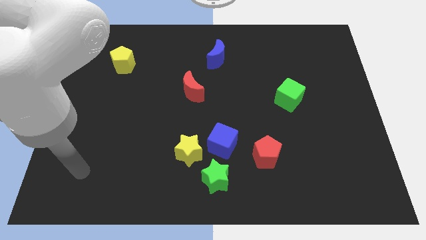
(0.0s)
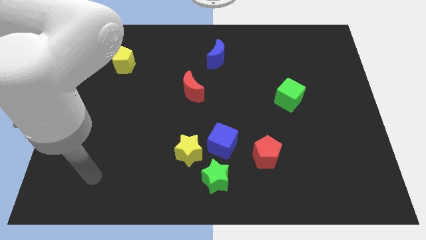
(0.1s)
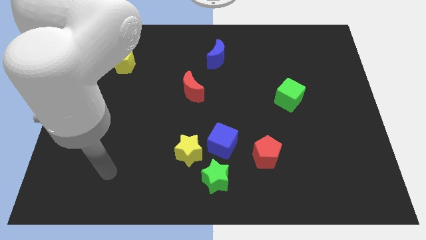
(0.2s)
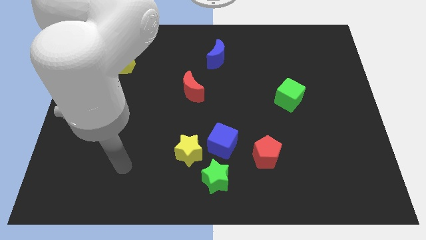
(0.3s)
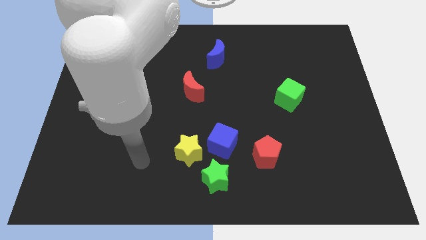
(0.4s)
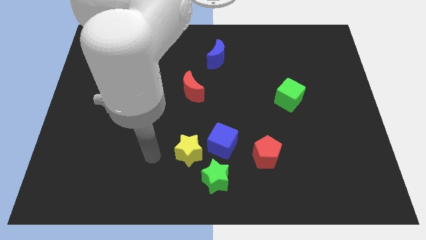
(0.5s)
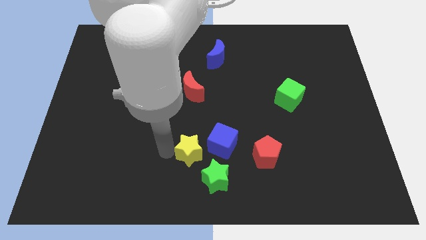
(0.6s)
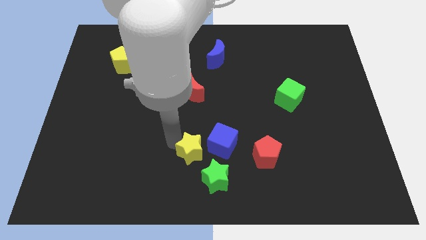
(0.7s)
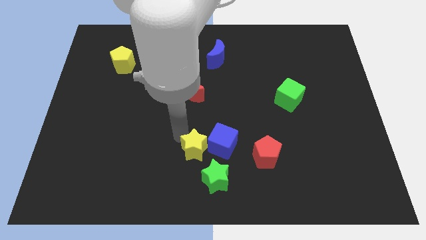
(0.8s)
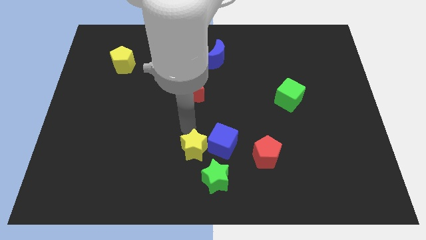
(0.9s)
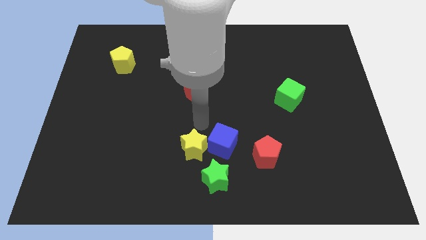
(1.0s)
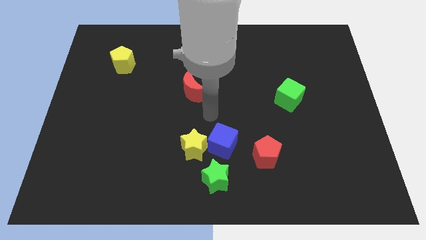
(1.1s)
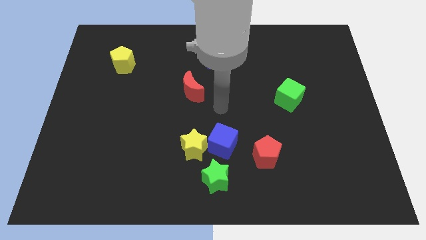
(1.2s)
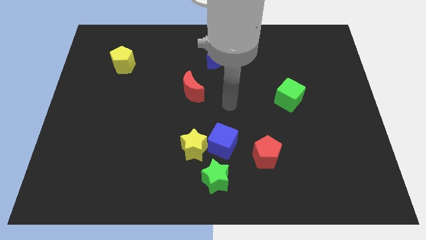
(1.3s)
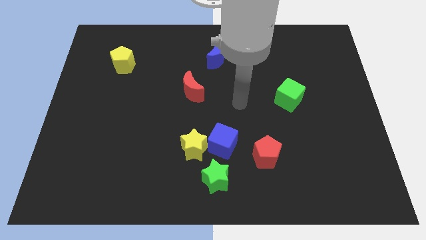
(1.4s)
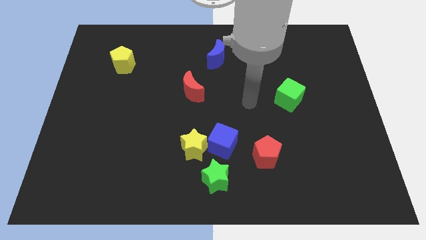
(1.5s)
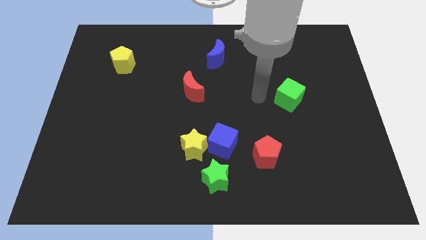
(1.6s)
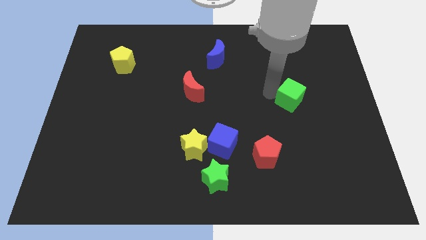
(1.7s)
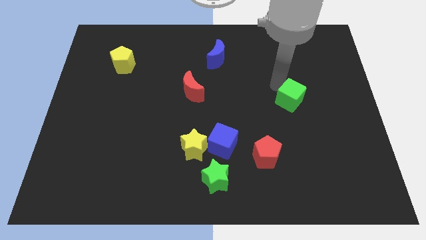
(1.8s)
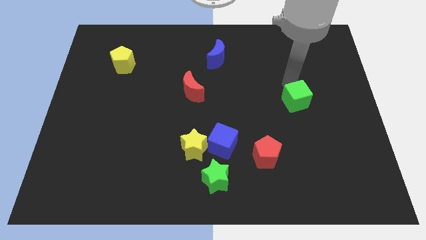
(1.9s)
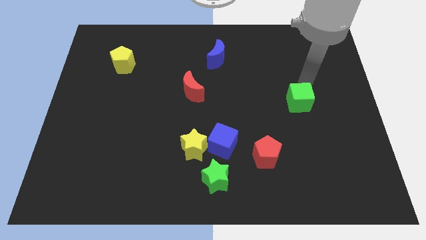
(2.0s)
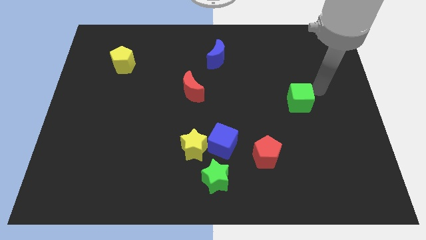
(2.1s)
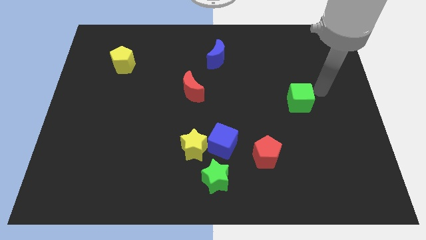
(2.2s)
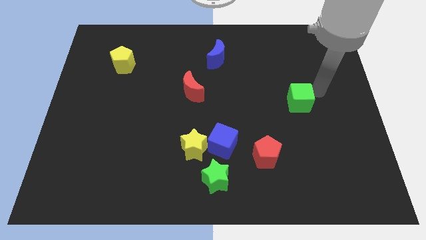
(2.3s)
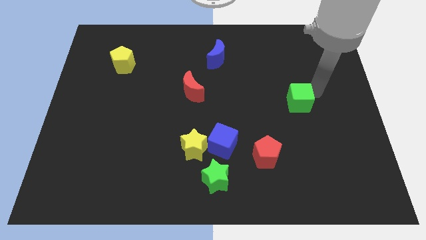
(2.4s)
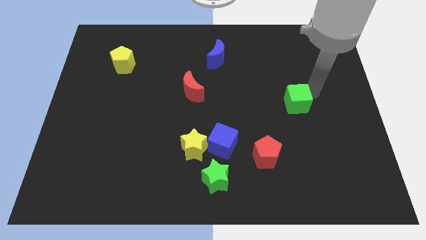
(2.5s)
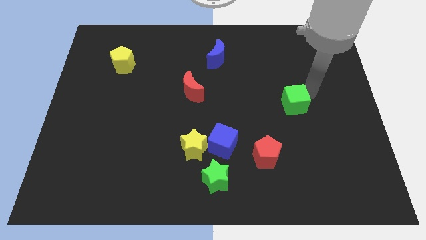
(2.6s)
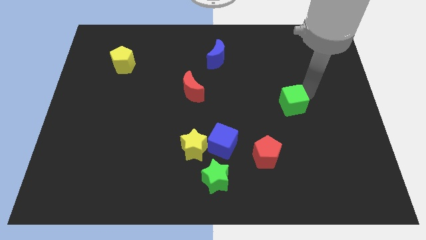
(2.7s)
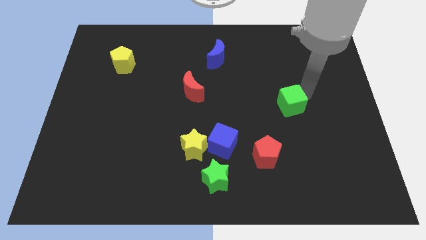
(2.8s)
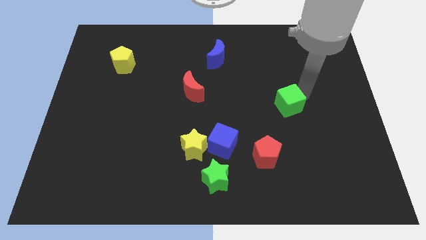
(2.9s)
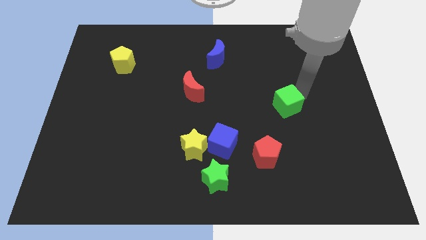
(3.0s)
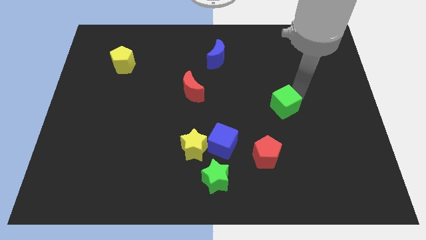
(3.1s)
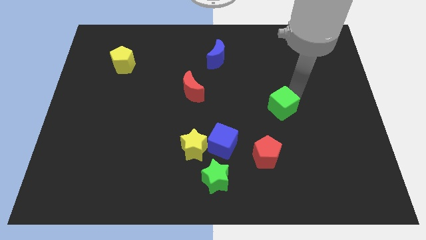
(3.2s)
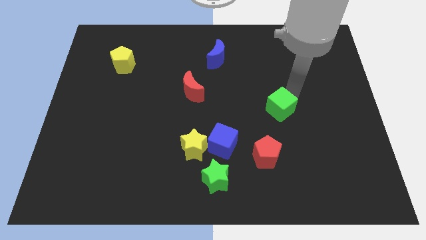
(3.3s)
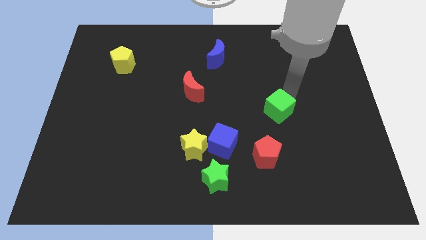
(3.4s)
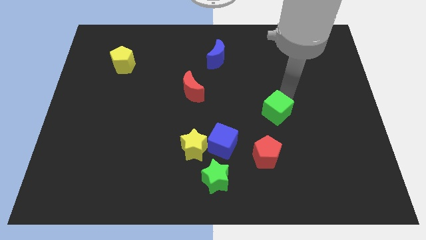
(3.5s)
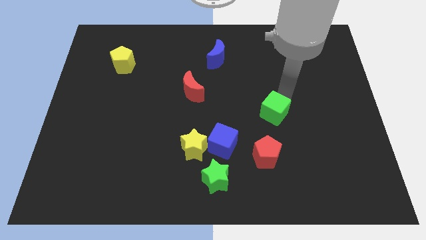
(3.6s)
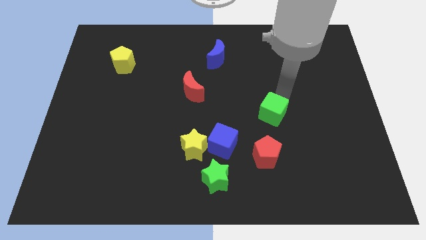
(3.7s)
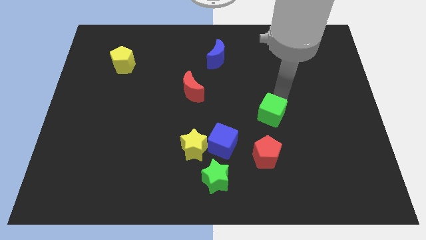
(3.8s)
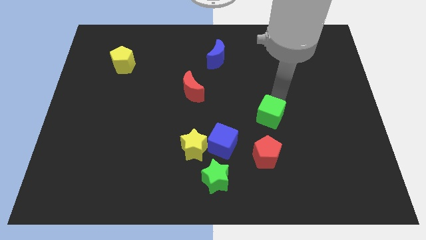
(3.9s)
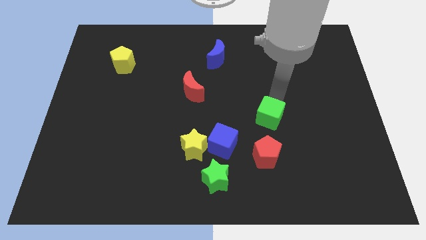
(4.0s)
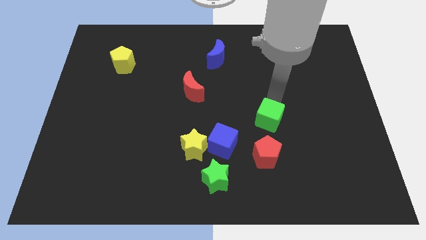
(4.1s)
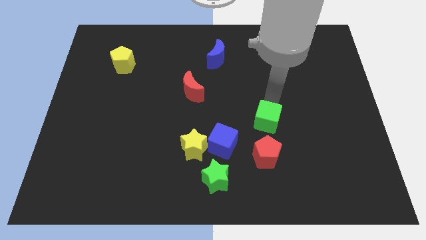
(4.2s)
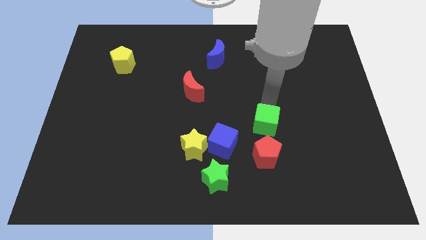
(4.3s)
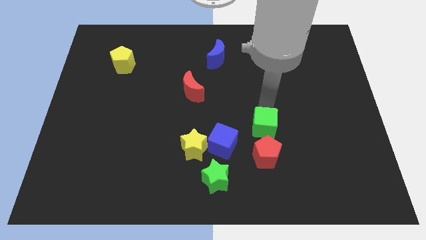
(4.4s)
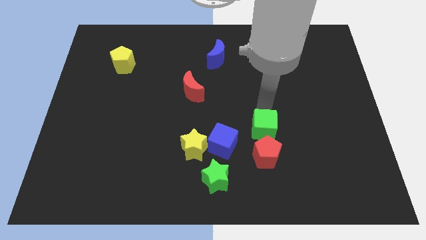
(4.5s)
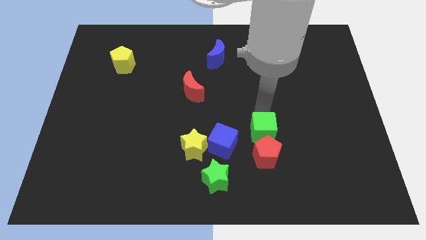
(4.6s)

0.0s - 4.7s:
slide the green cube next to the red pentagon

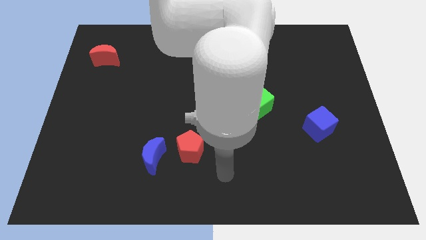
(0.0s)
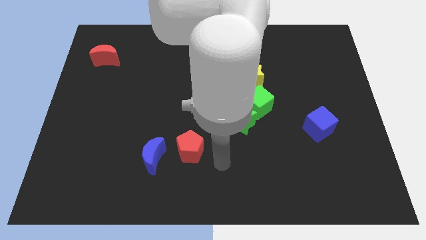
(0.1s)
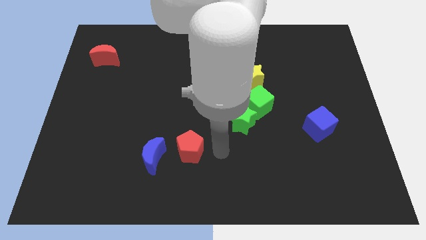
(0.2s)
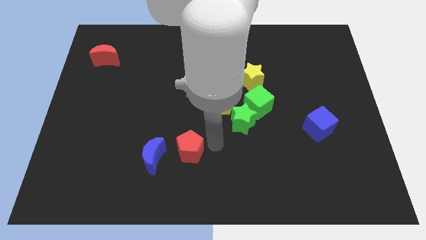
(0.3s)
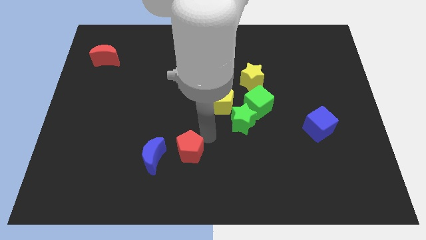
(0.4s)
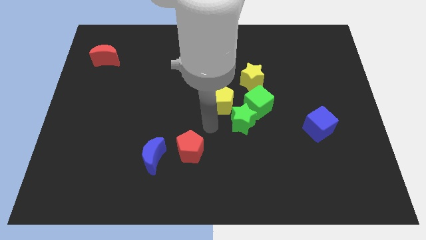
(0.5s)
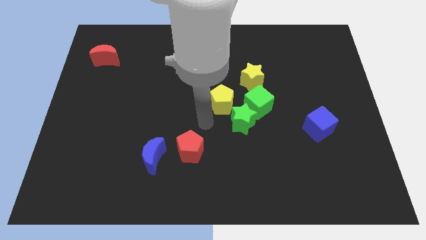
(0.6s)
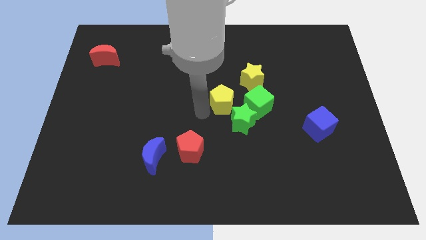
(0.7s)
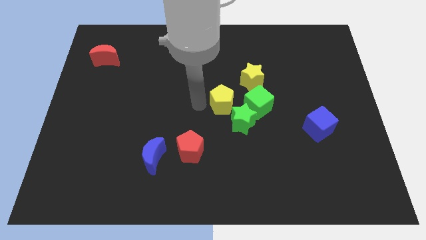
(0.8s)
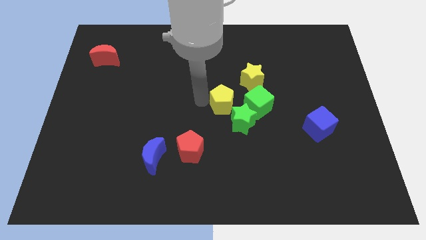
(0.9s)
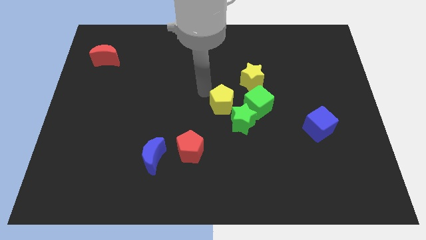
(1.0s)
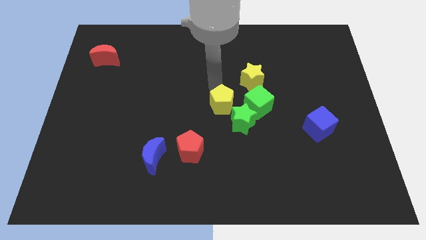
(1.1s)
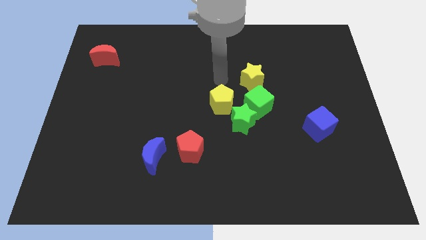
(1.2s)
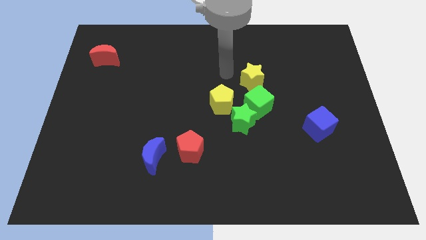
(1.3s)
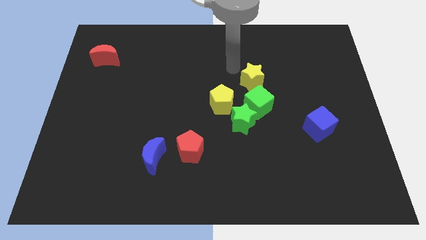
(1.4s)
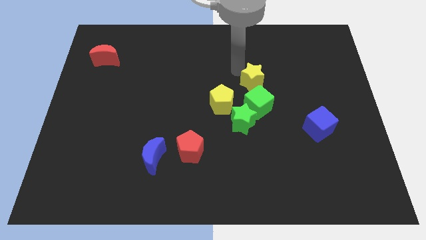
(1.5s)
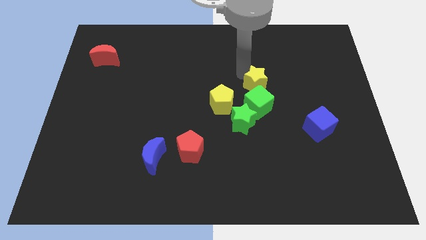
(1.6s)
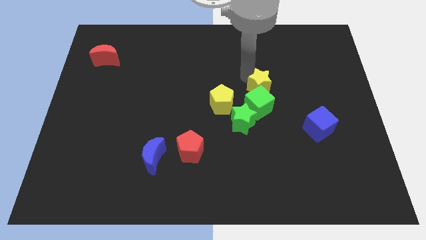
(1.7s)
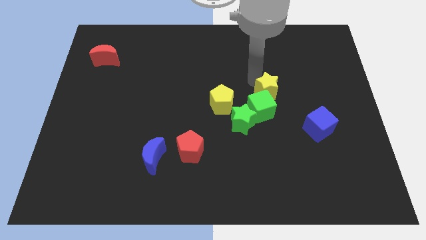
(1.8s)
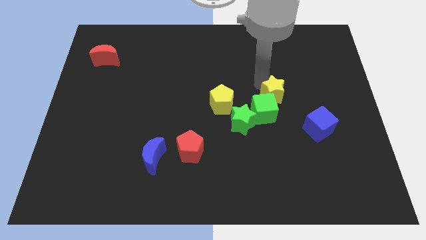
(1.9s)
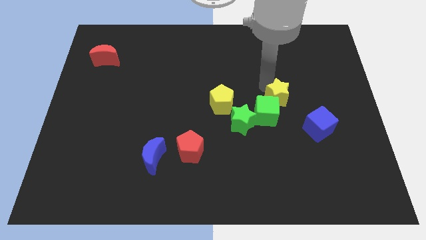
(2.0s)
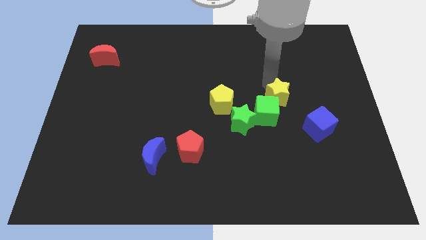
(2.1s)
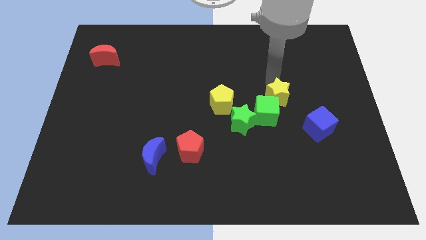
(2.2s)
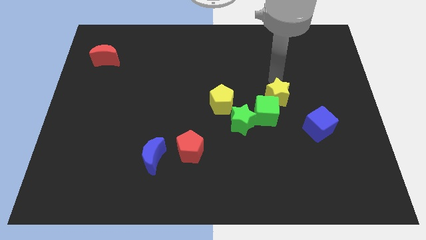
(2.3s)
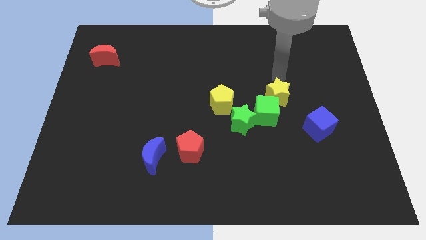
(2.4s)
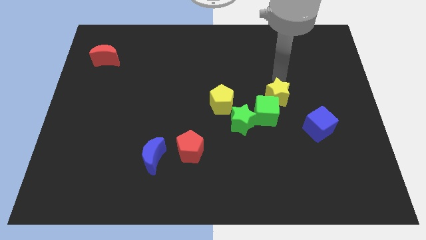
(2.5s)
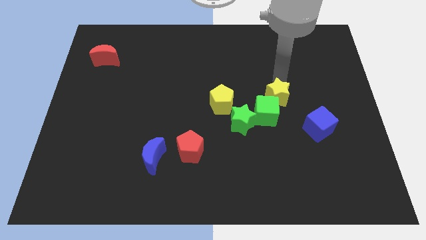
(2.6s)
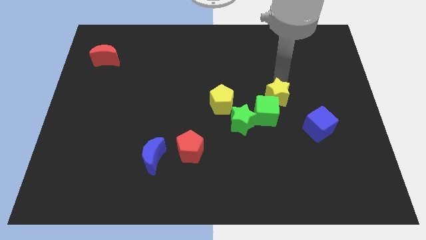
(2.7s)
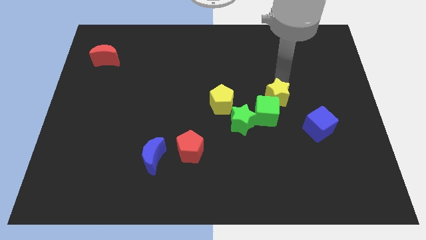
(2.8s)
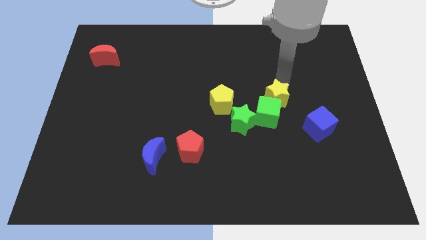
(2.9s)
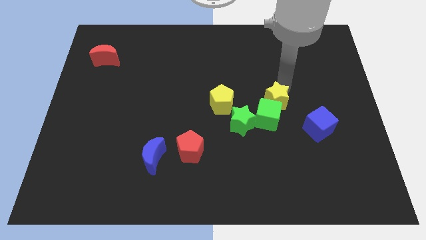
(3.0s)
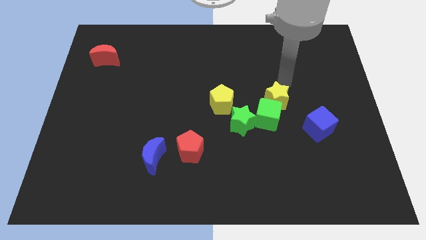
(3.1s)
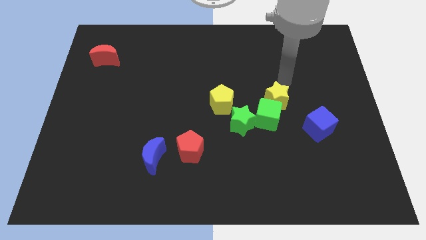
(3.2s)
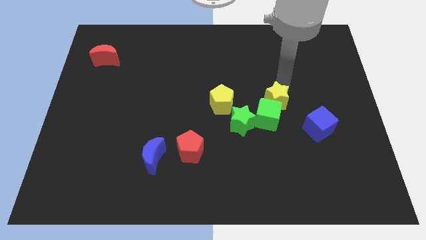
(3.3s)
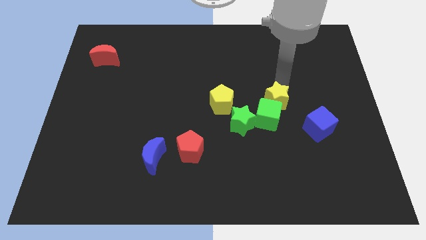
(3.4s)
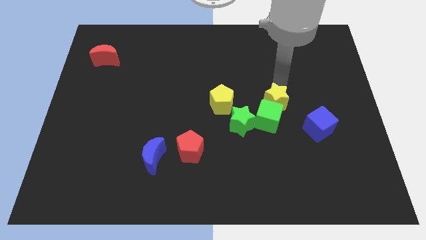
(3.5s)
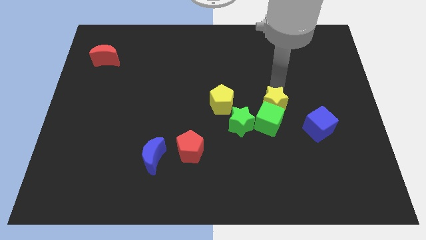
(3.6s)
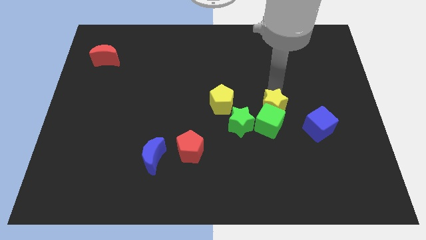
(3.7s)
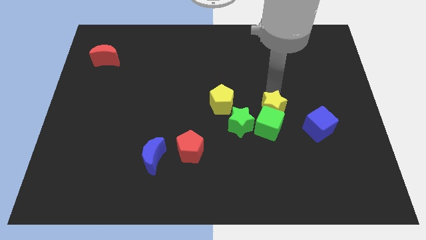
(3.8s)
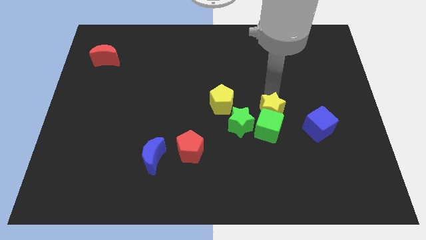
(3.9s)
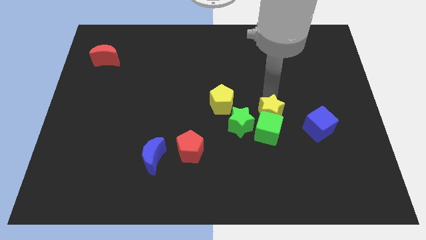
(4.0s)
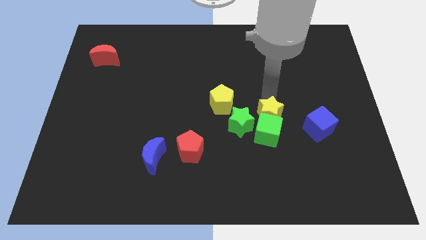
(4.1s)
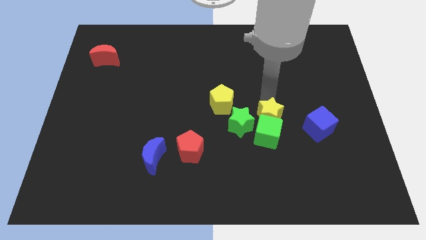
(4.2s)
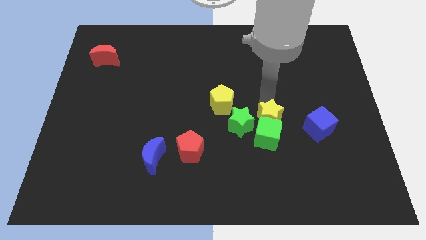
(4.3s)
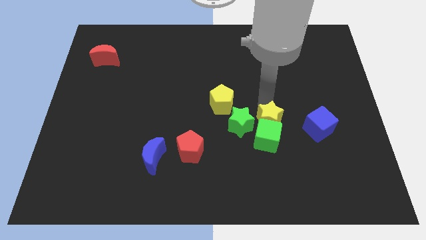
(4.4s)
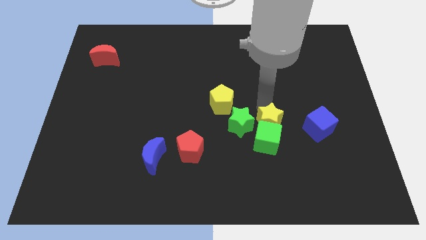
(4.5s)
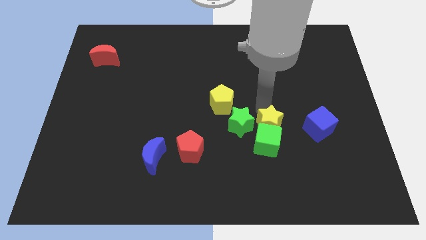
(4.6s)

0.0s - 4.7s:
put the yellow star close to the green star
